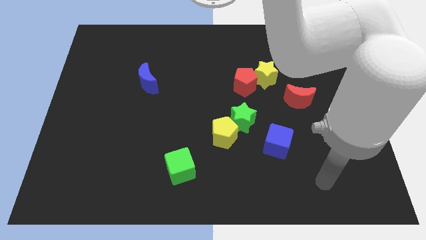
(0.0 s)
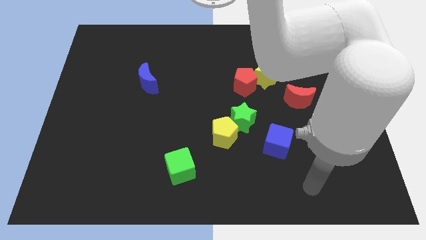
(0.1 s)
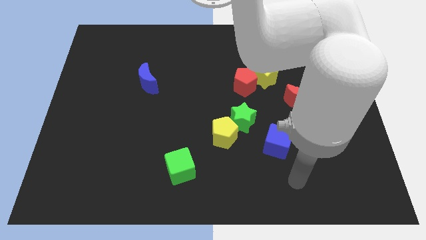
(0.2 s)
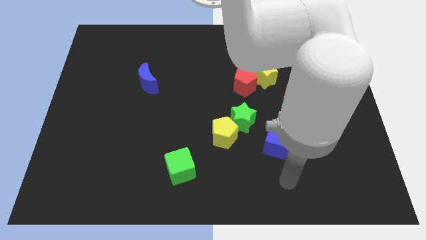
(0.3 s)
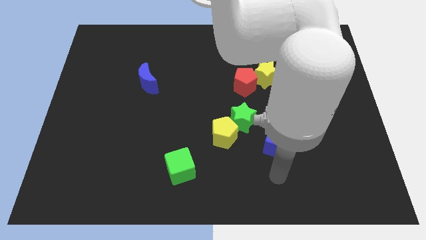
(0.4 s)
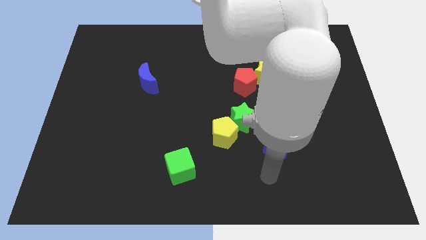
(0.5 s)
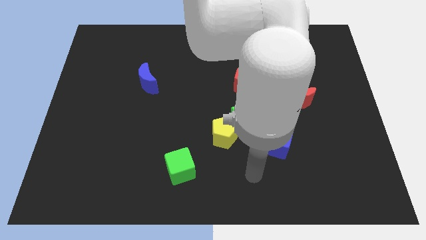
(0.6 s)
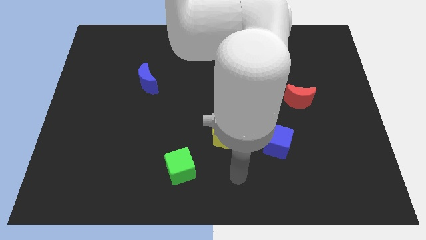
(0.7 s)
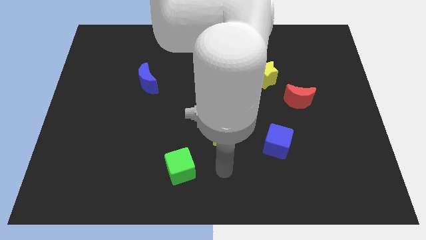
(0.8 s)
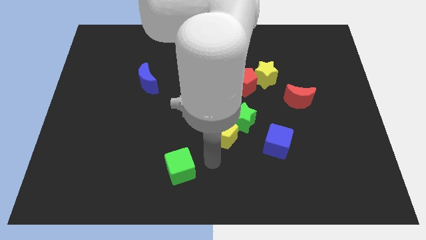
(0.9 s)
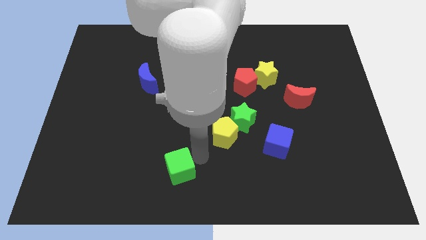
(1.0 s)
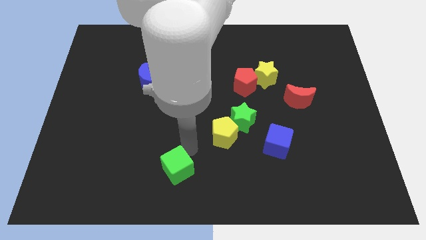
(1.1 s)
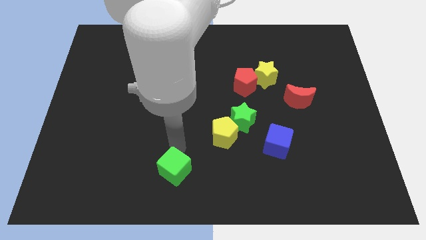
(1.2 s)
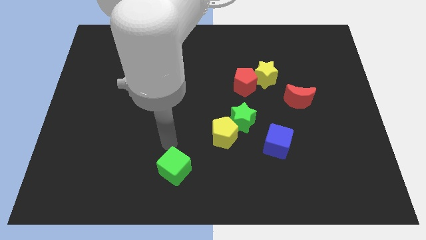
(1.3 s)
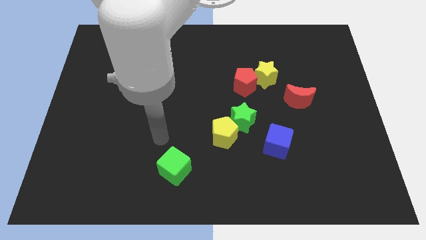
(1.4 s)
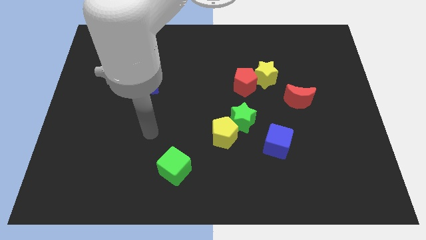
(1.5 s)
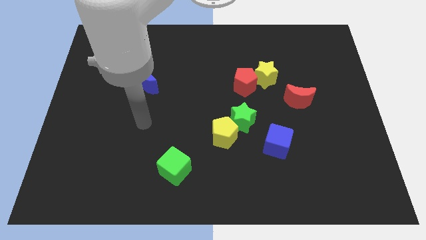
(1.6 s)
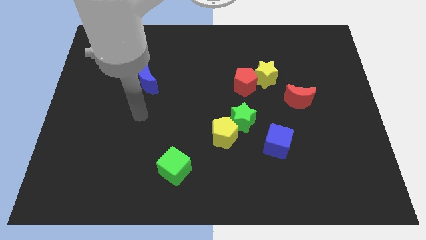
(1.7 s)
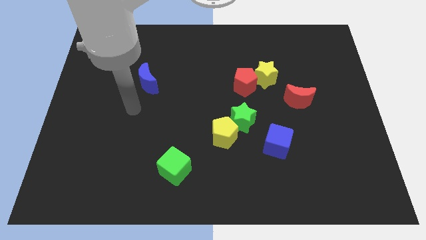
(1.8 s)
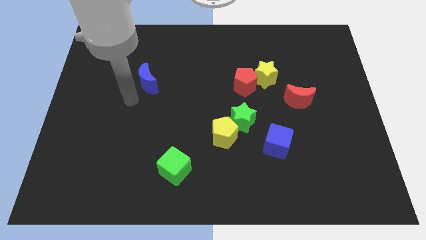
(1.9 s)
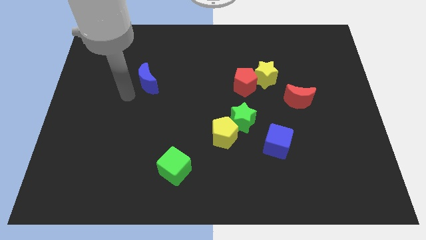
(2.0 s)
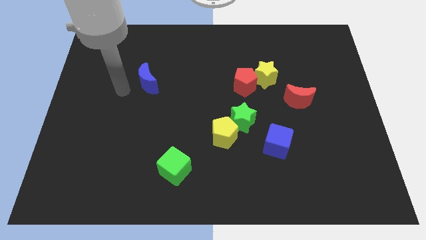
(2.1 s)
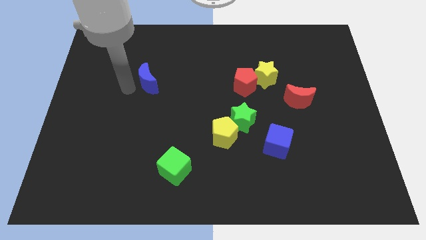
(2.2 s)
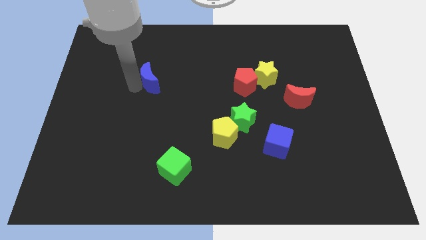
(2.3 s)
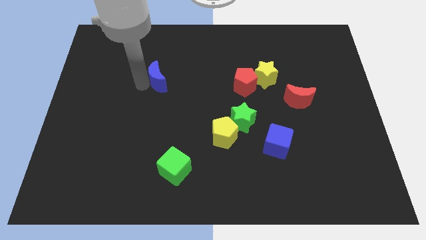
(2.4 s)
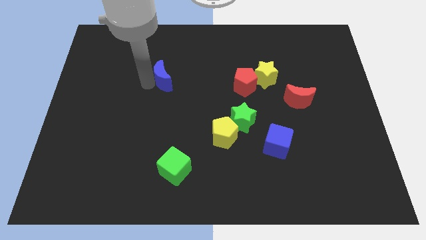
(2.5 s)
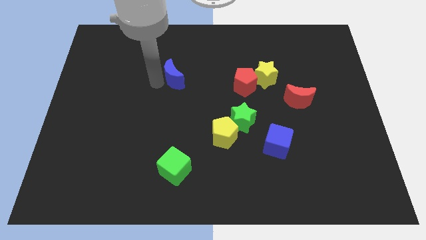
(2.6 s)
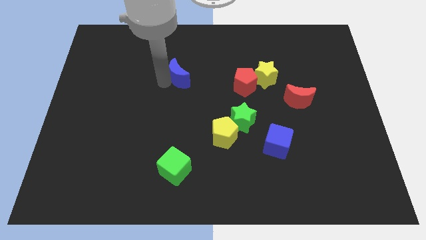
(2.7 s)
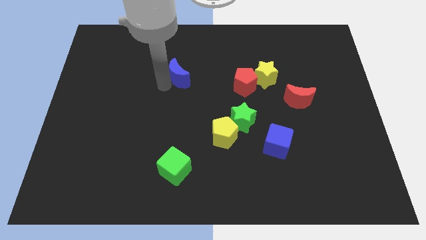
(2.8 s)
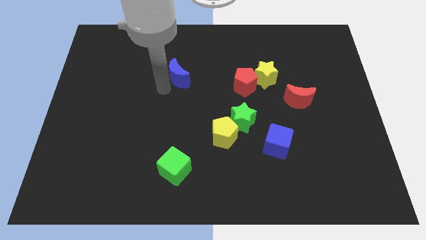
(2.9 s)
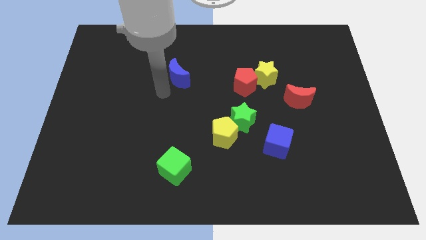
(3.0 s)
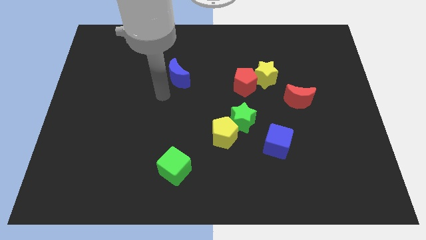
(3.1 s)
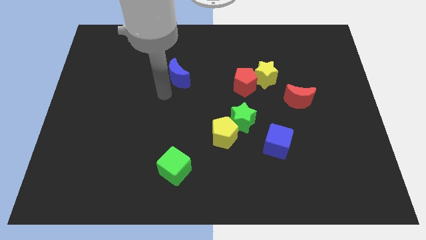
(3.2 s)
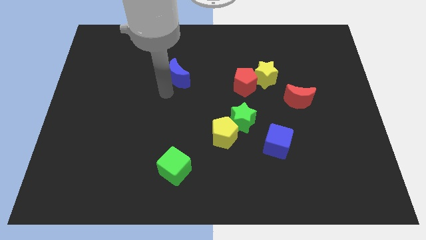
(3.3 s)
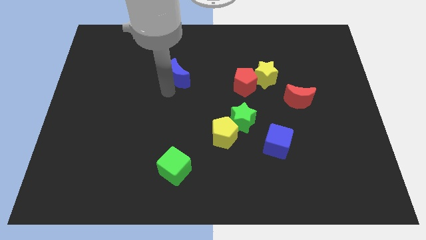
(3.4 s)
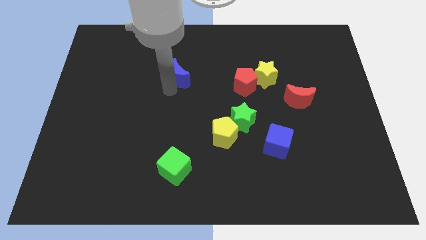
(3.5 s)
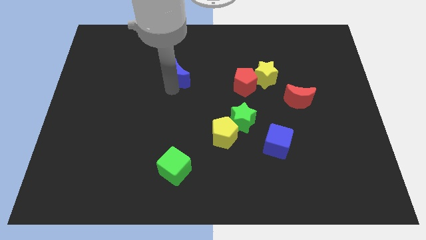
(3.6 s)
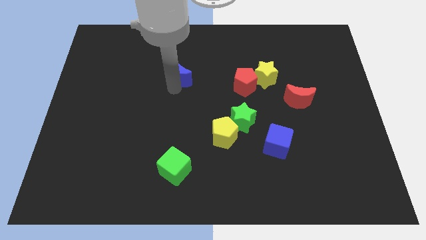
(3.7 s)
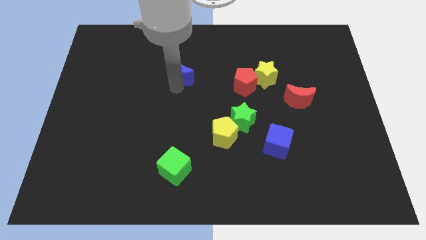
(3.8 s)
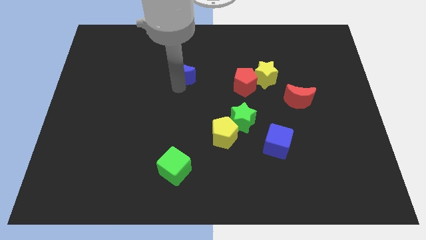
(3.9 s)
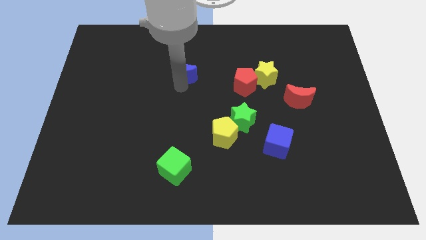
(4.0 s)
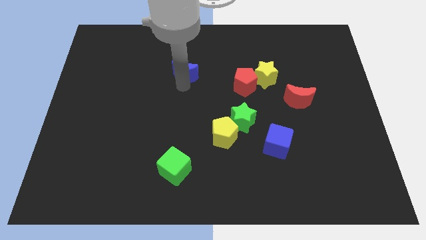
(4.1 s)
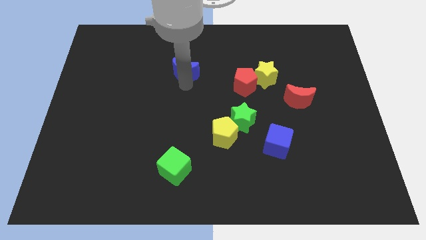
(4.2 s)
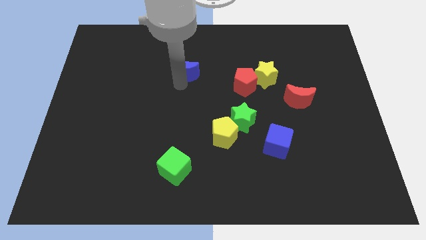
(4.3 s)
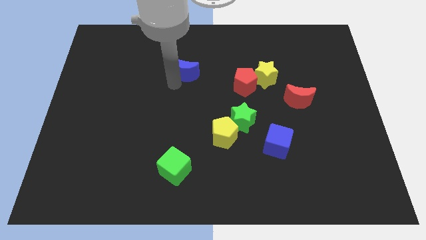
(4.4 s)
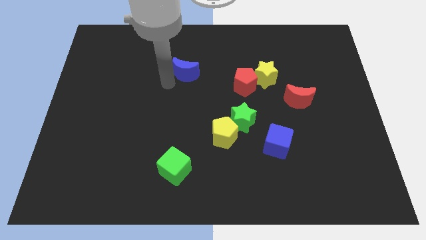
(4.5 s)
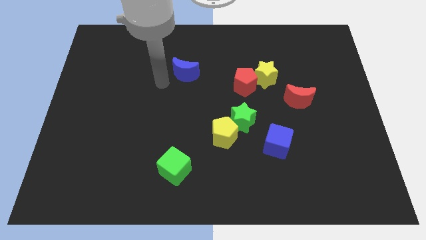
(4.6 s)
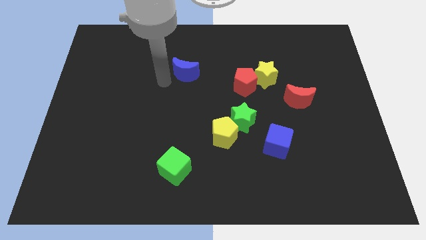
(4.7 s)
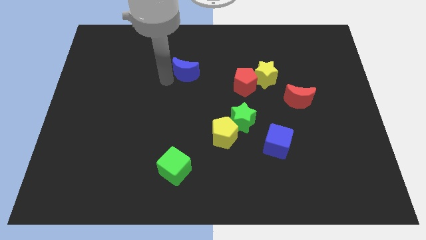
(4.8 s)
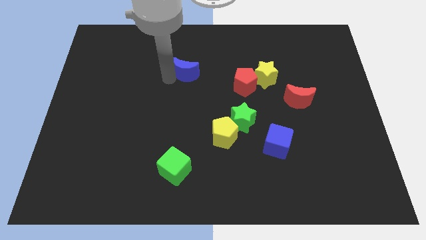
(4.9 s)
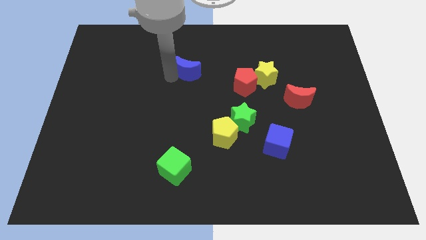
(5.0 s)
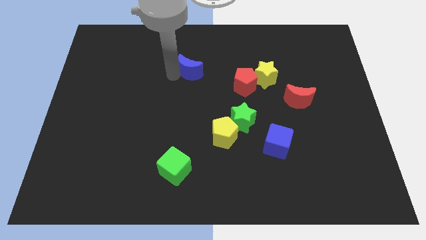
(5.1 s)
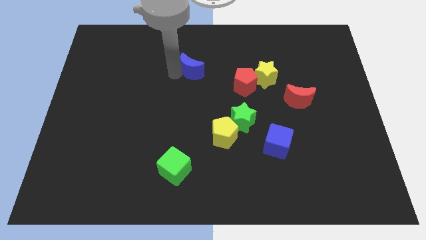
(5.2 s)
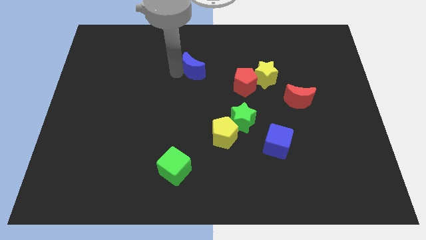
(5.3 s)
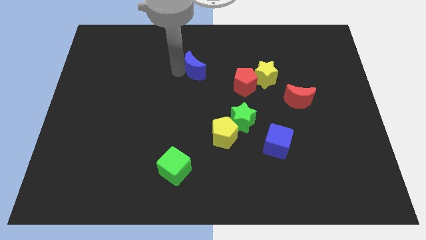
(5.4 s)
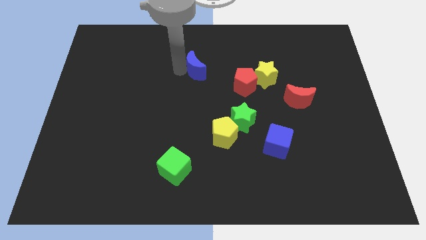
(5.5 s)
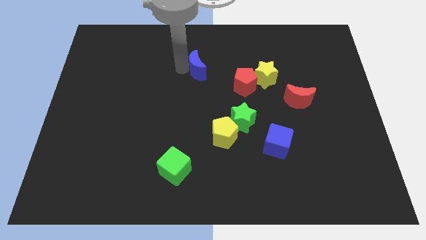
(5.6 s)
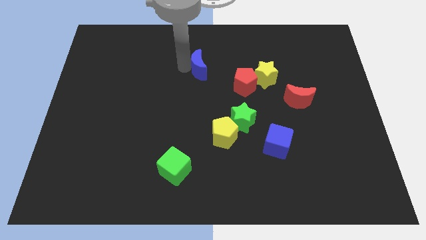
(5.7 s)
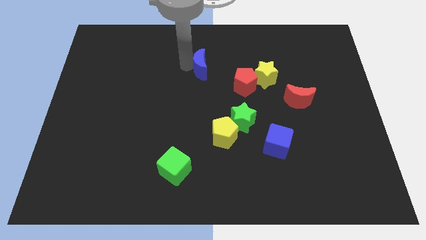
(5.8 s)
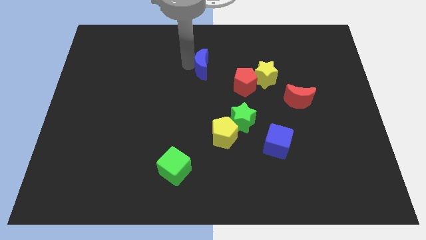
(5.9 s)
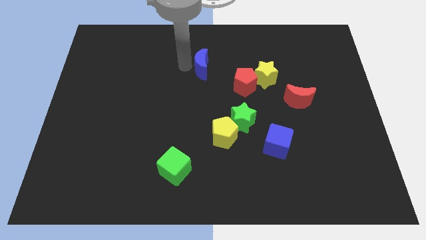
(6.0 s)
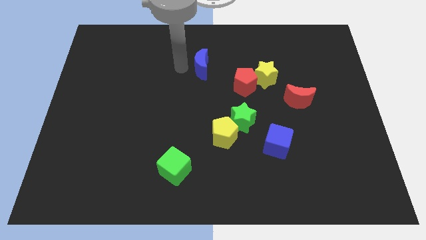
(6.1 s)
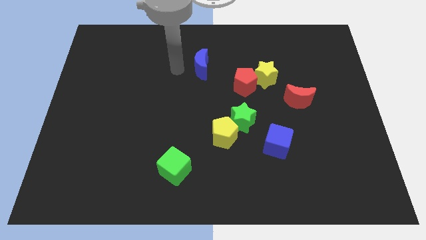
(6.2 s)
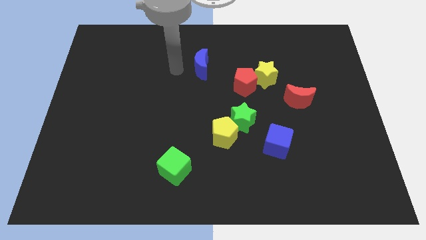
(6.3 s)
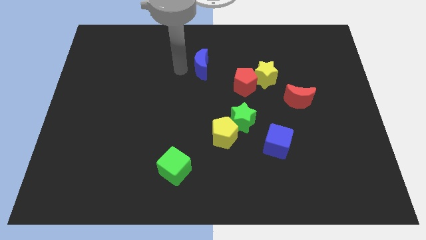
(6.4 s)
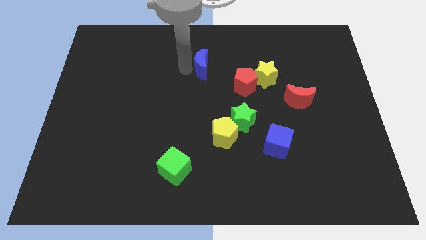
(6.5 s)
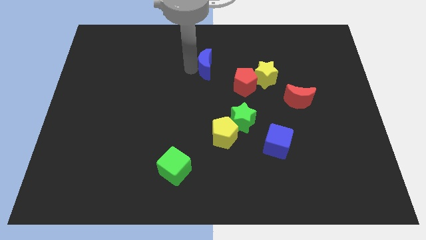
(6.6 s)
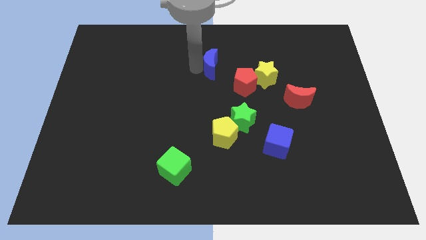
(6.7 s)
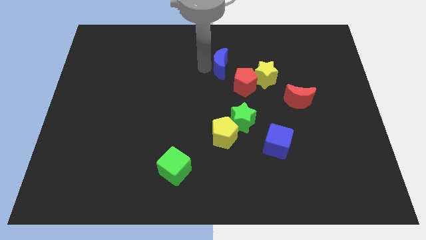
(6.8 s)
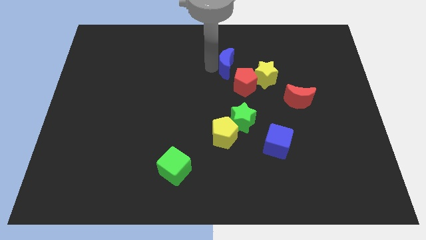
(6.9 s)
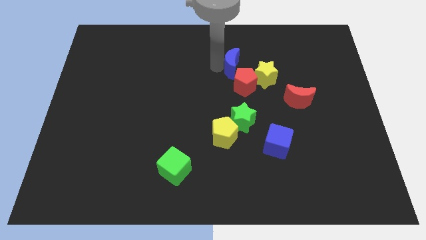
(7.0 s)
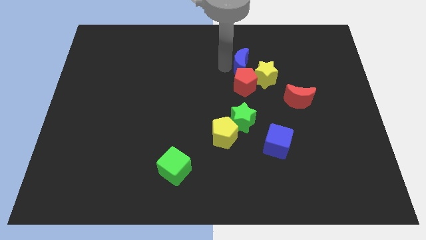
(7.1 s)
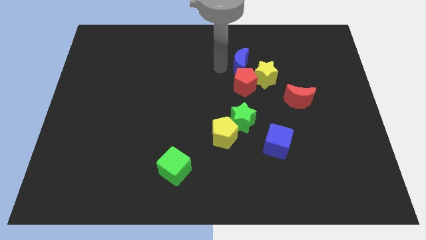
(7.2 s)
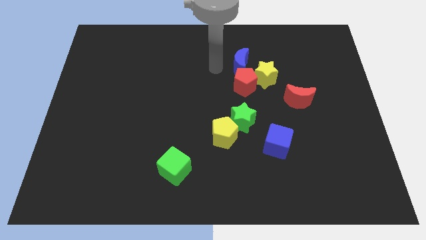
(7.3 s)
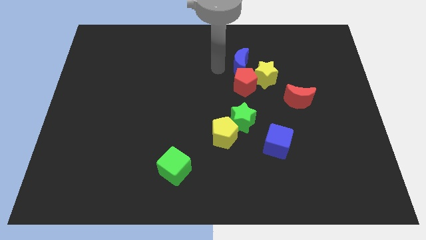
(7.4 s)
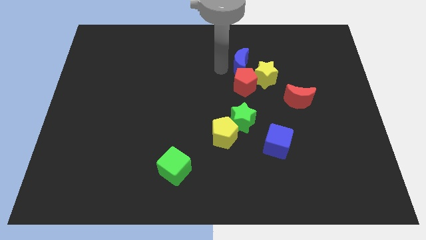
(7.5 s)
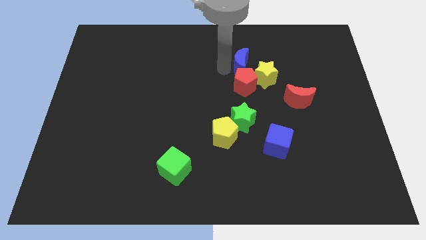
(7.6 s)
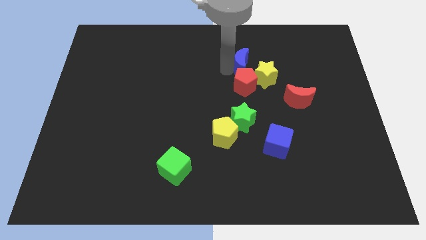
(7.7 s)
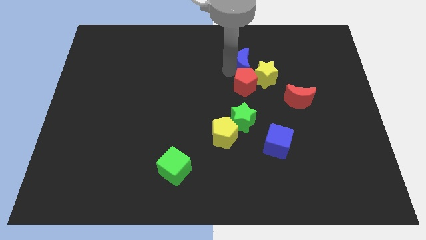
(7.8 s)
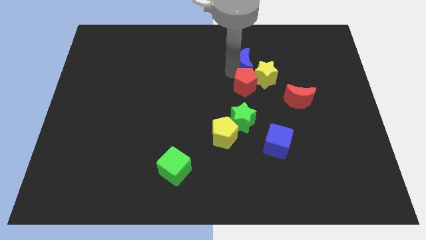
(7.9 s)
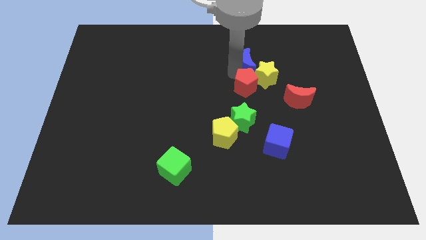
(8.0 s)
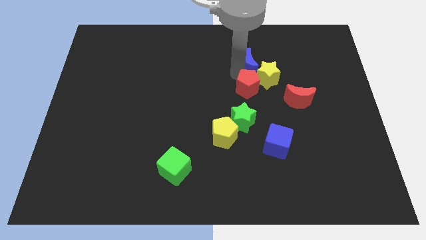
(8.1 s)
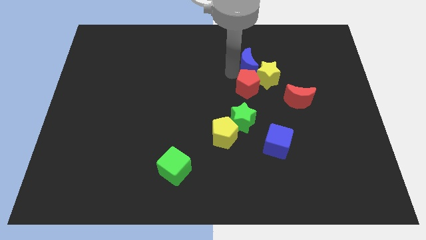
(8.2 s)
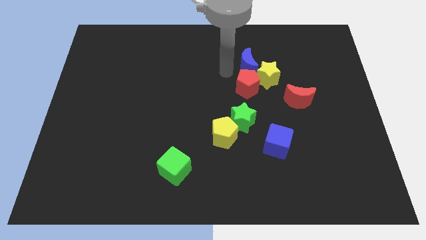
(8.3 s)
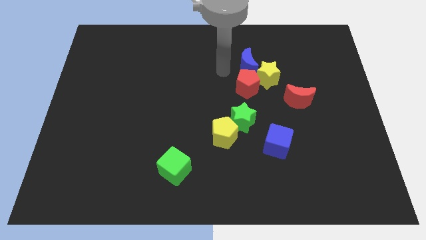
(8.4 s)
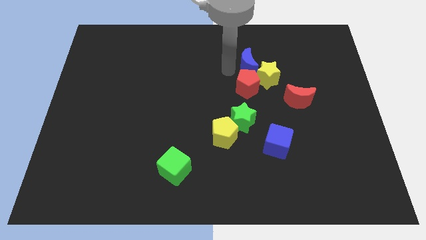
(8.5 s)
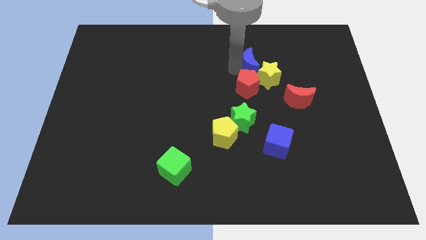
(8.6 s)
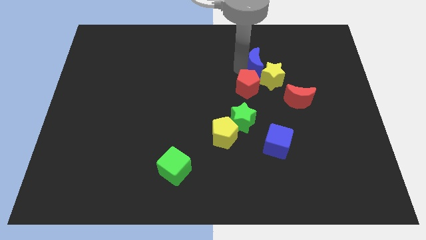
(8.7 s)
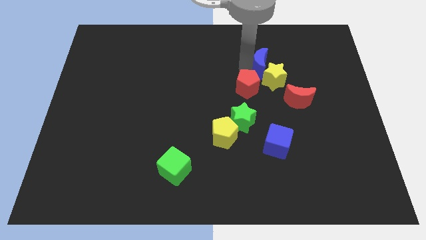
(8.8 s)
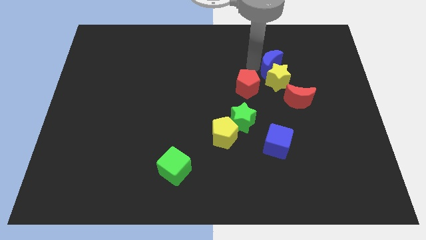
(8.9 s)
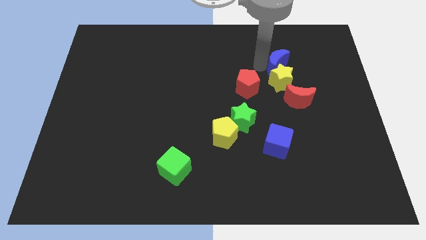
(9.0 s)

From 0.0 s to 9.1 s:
slide the blue moon to the top side of the red moon
